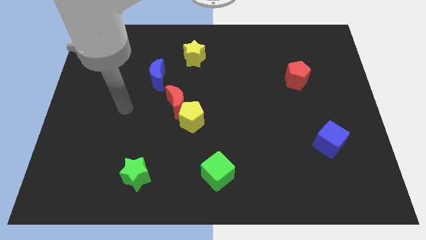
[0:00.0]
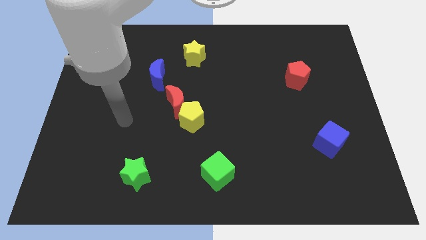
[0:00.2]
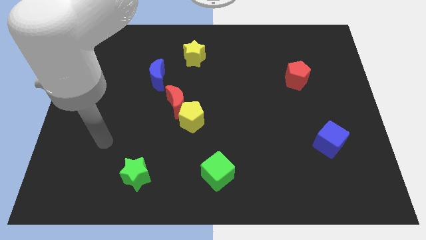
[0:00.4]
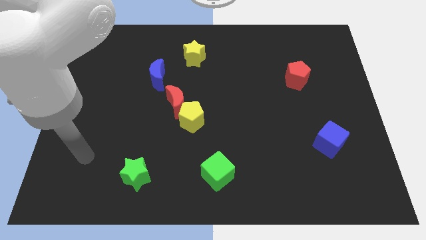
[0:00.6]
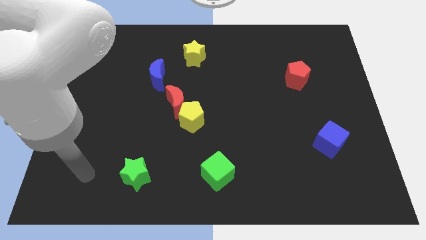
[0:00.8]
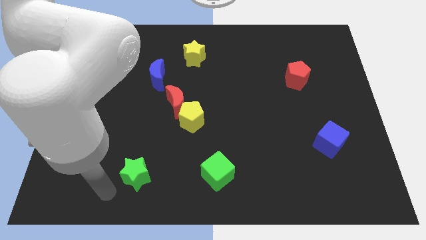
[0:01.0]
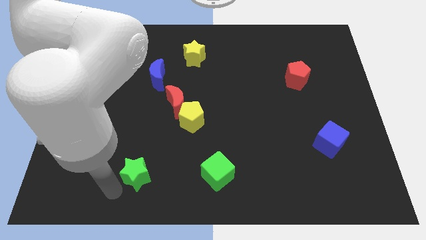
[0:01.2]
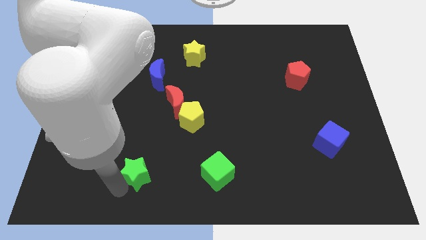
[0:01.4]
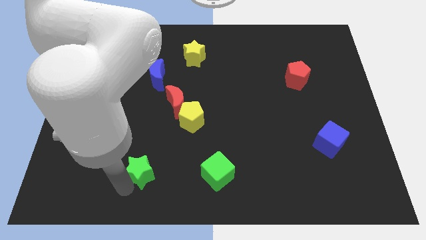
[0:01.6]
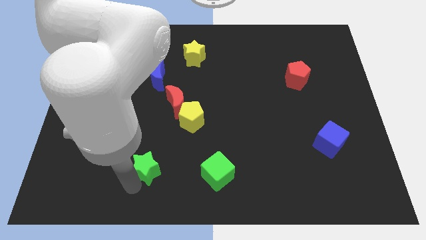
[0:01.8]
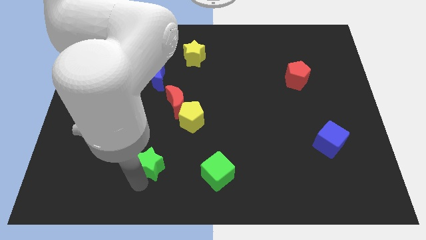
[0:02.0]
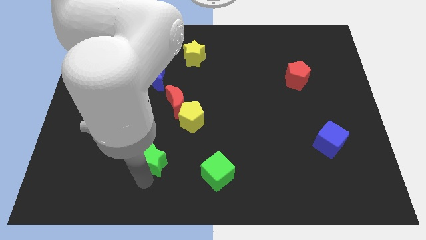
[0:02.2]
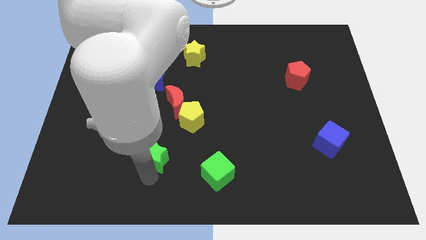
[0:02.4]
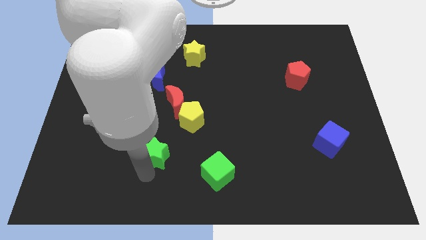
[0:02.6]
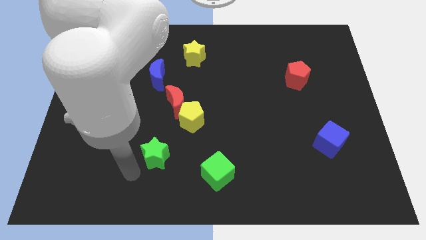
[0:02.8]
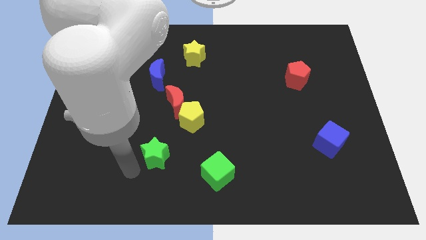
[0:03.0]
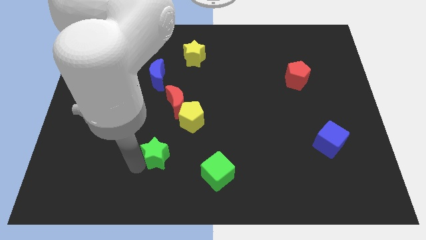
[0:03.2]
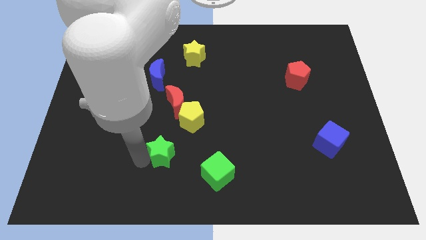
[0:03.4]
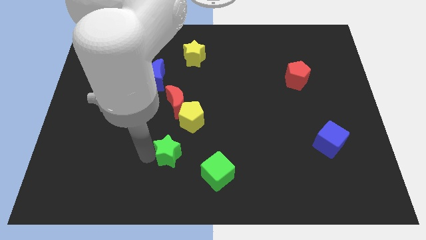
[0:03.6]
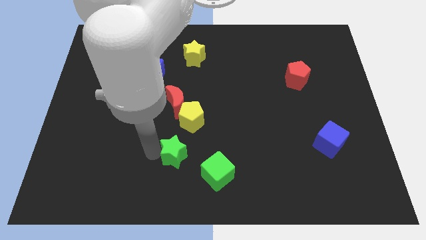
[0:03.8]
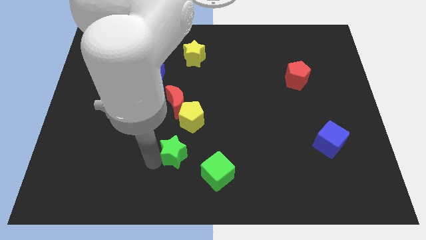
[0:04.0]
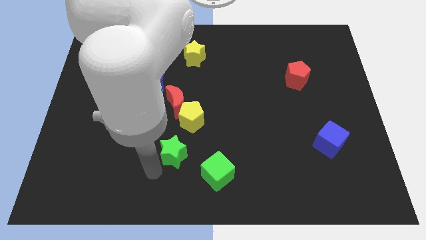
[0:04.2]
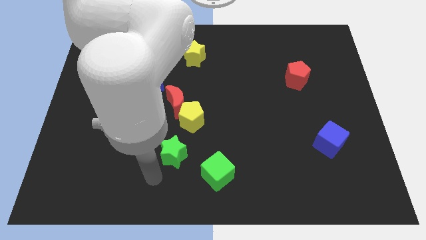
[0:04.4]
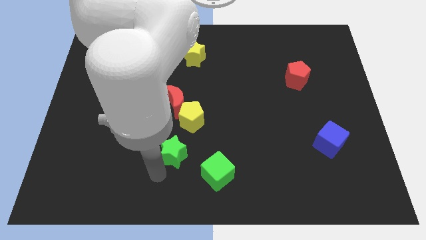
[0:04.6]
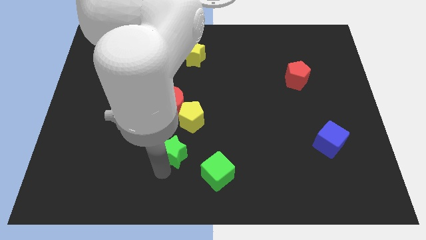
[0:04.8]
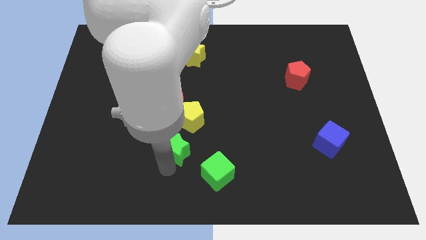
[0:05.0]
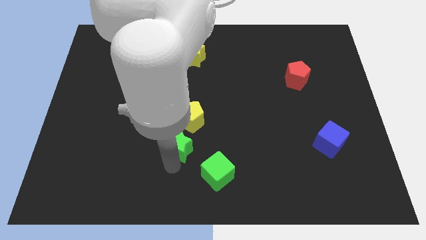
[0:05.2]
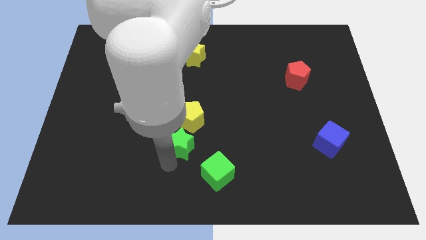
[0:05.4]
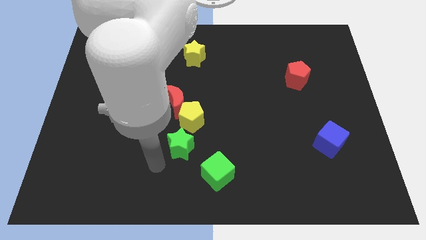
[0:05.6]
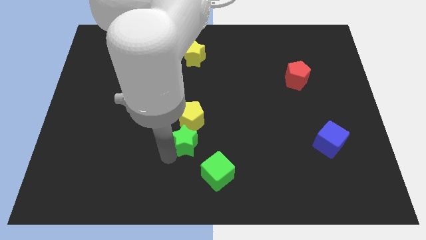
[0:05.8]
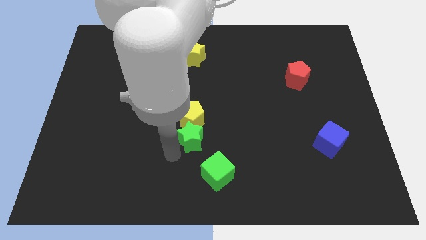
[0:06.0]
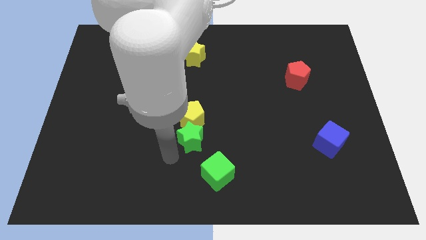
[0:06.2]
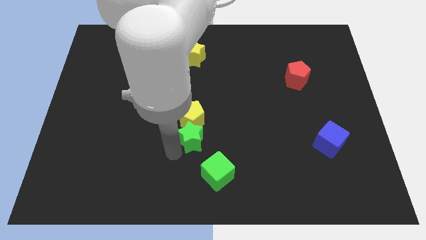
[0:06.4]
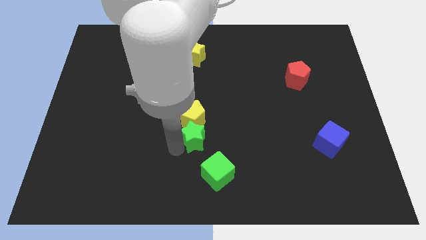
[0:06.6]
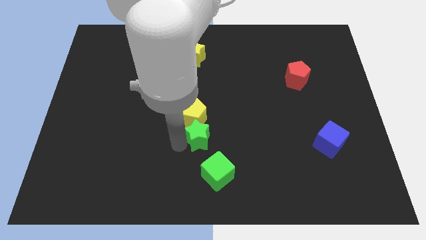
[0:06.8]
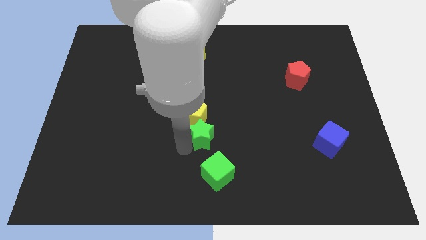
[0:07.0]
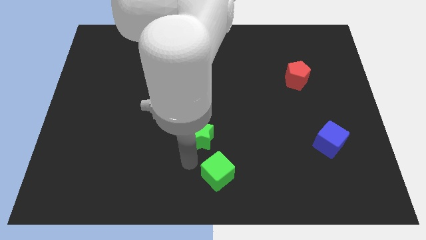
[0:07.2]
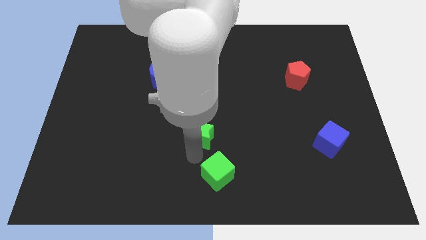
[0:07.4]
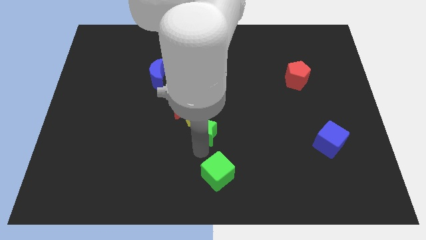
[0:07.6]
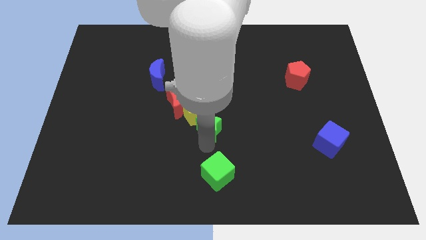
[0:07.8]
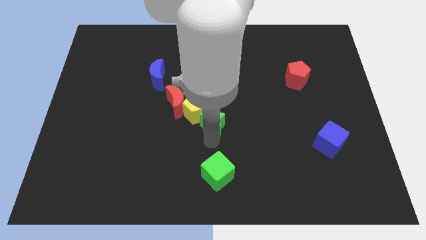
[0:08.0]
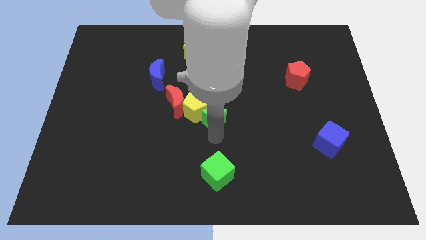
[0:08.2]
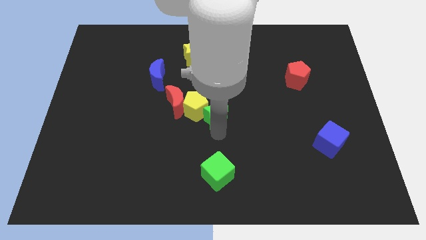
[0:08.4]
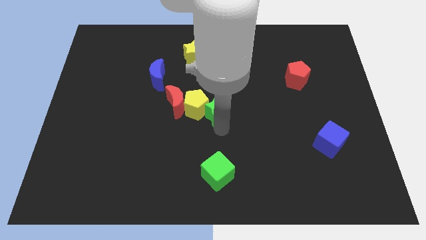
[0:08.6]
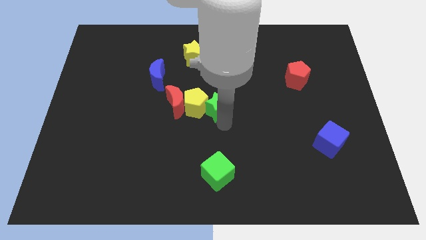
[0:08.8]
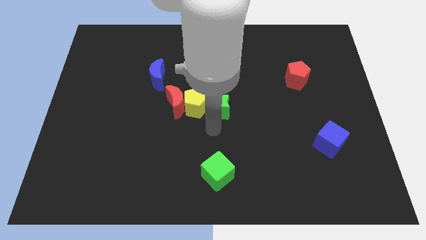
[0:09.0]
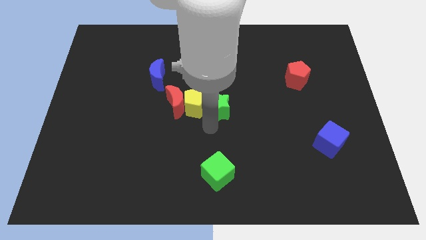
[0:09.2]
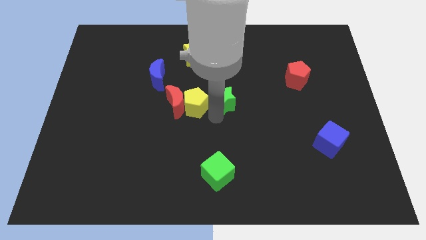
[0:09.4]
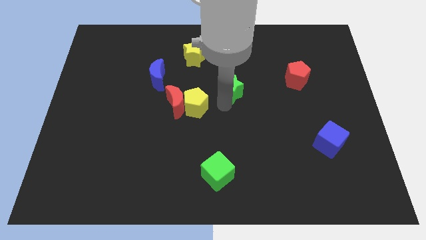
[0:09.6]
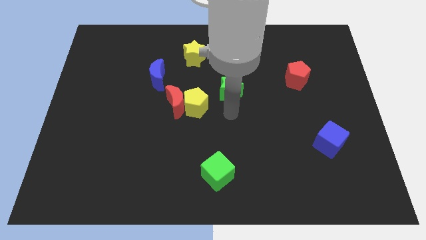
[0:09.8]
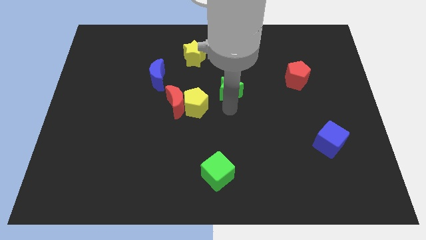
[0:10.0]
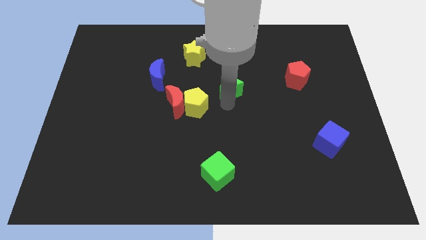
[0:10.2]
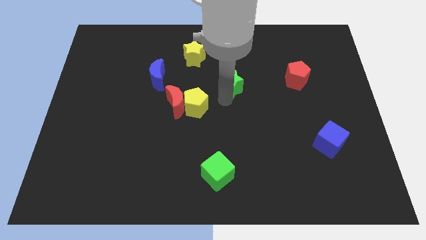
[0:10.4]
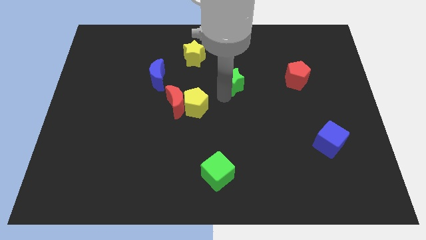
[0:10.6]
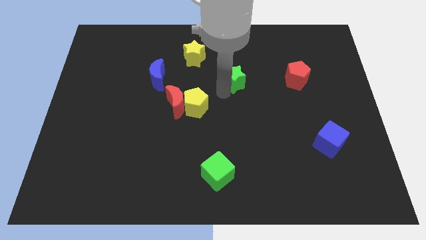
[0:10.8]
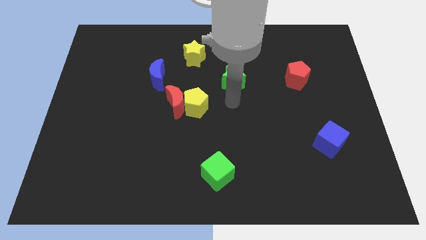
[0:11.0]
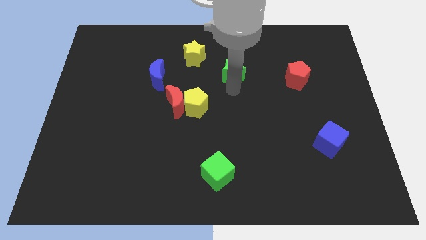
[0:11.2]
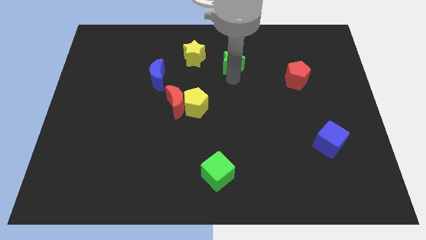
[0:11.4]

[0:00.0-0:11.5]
move the green star to the right side of the yellow star

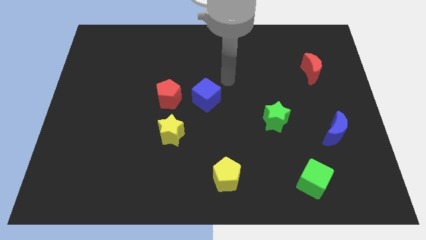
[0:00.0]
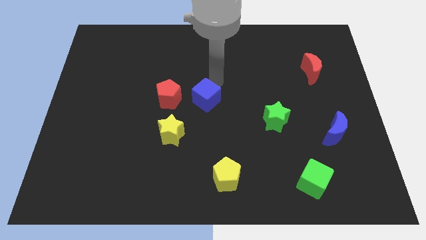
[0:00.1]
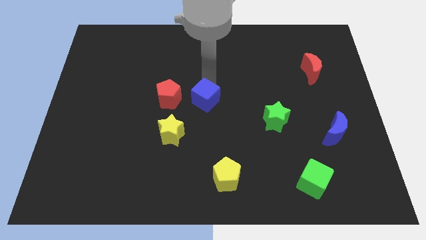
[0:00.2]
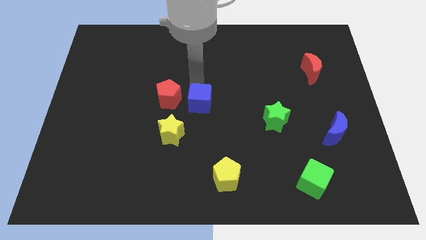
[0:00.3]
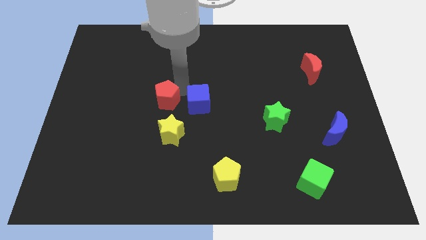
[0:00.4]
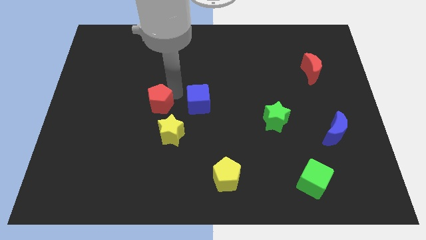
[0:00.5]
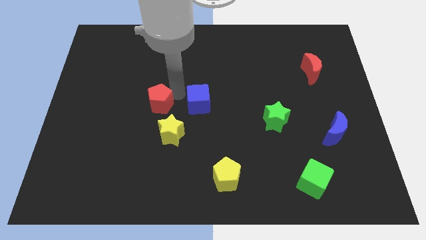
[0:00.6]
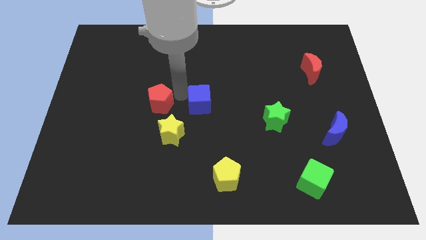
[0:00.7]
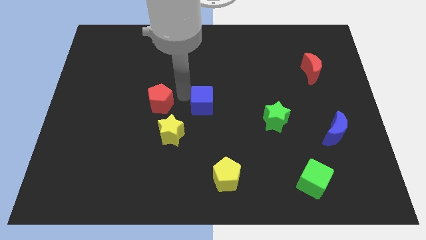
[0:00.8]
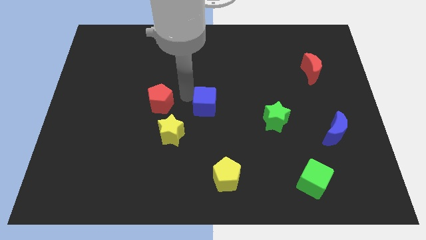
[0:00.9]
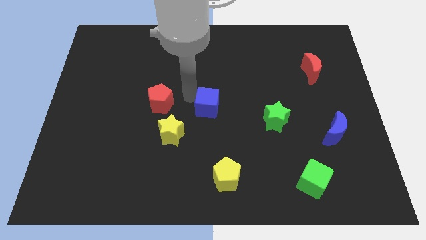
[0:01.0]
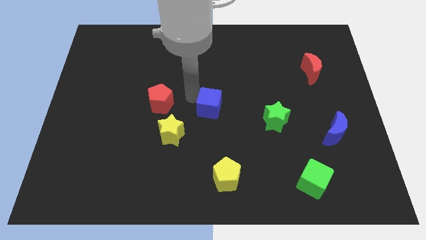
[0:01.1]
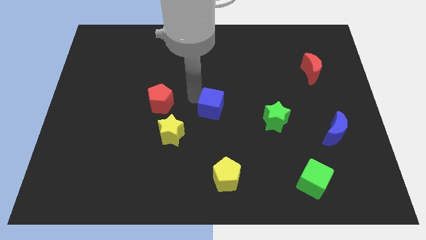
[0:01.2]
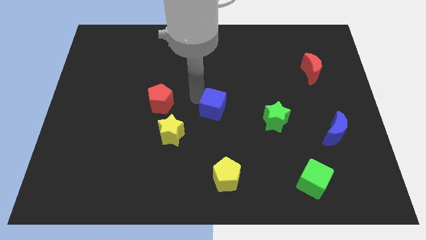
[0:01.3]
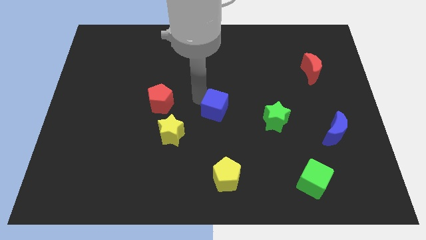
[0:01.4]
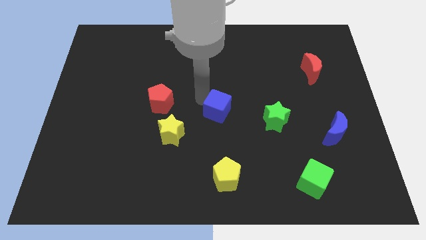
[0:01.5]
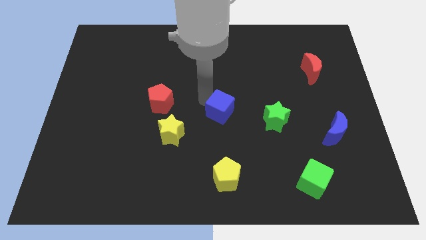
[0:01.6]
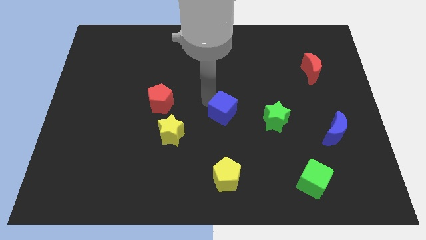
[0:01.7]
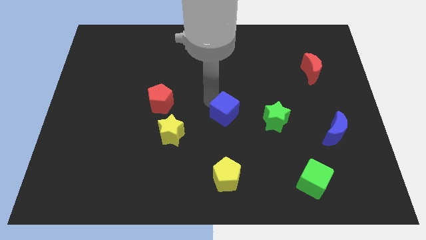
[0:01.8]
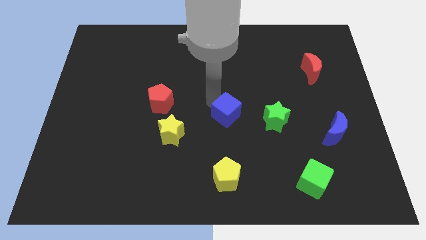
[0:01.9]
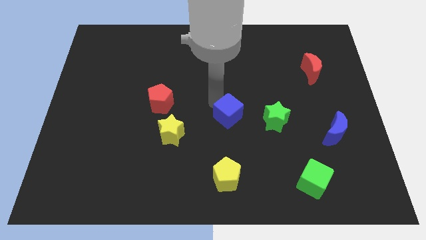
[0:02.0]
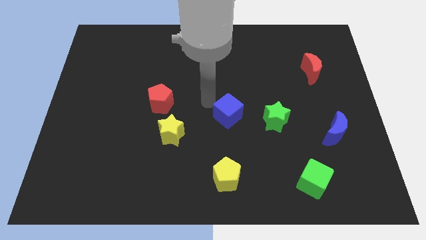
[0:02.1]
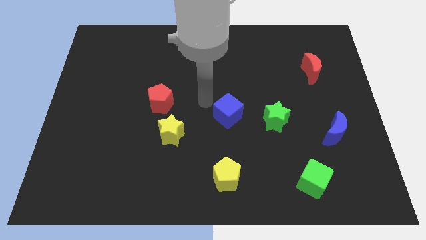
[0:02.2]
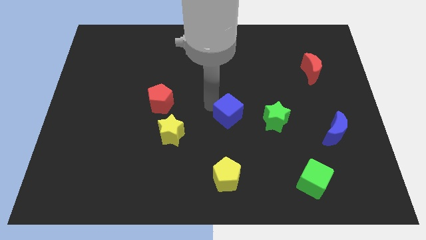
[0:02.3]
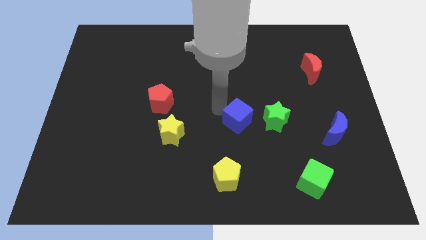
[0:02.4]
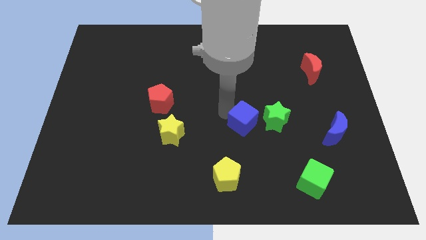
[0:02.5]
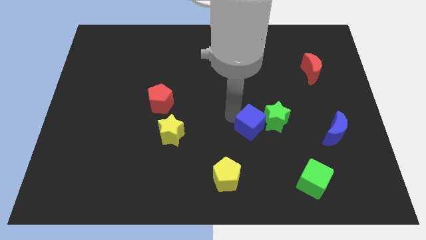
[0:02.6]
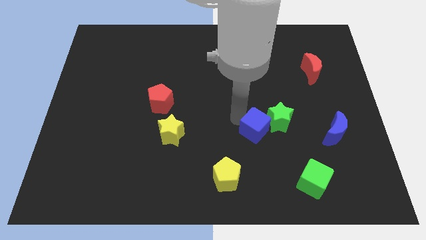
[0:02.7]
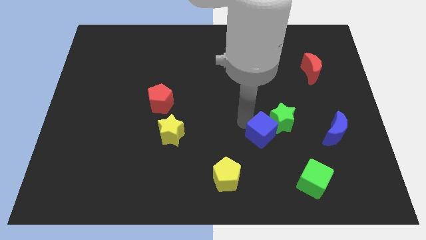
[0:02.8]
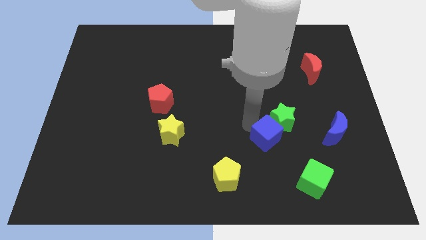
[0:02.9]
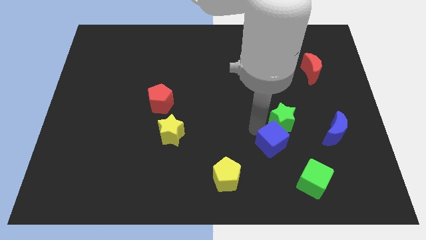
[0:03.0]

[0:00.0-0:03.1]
move the blue cube to the top left side of the green cube
